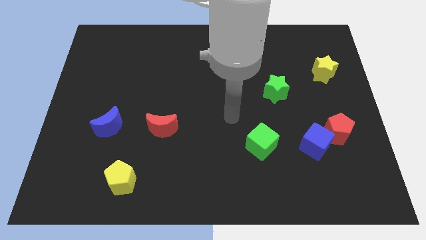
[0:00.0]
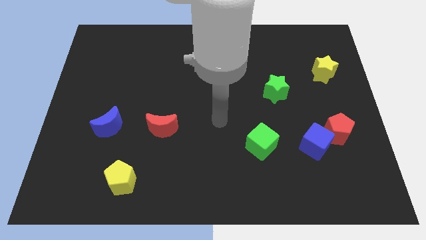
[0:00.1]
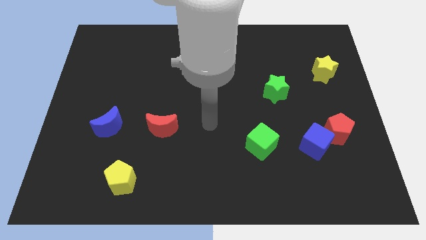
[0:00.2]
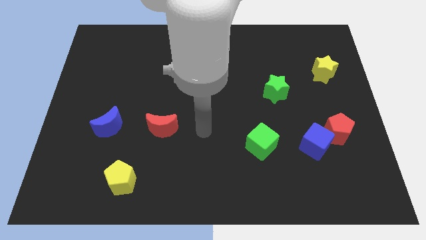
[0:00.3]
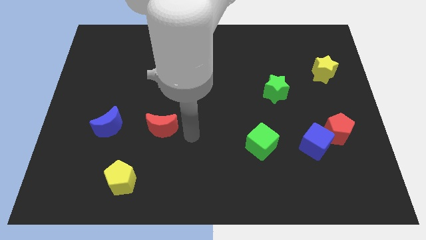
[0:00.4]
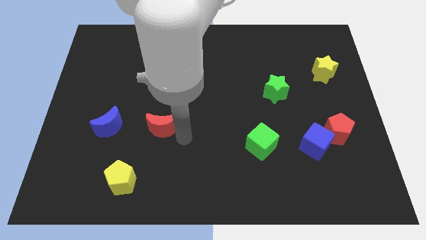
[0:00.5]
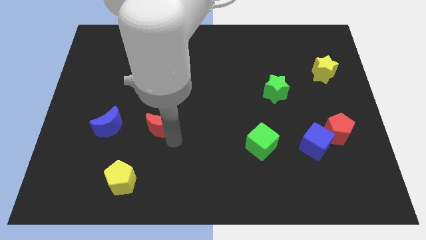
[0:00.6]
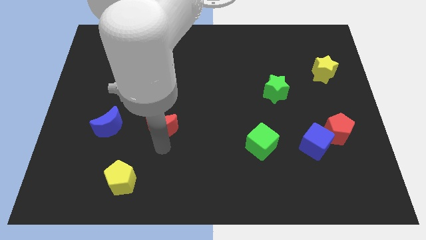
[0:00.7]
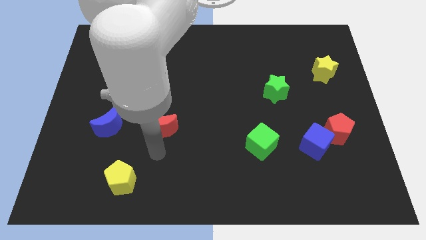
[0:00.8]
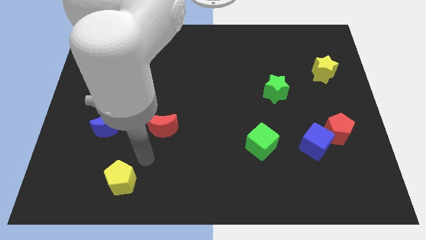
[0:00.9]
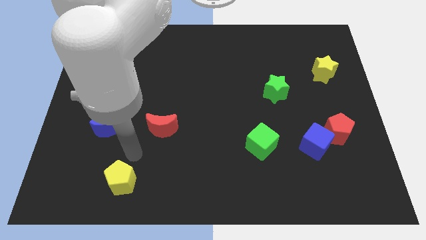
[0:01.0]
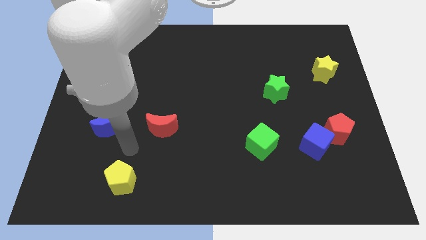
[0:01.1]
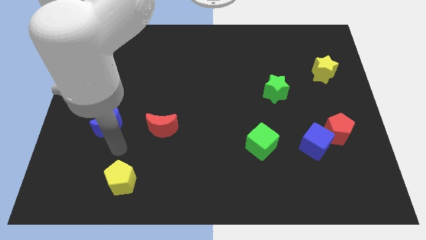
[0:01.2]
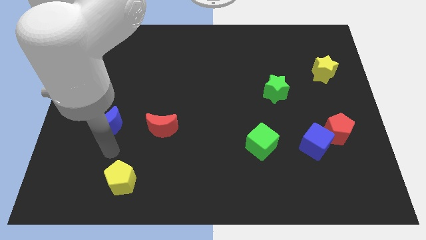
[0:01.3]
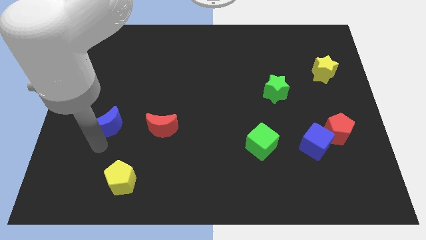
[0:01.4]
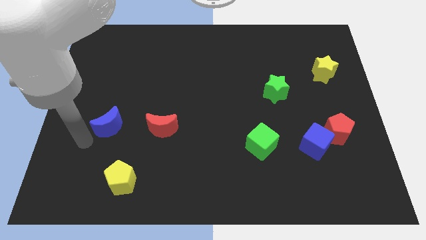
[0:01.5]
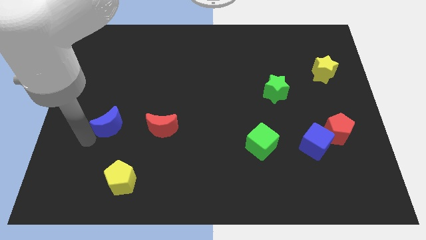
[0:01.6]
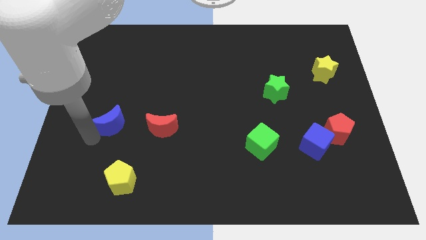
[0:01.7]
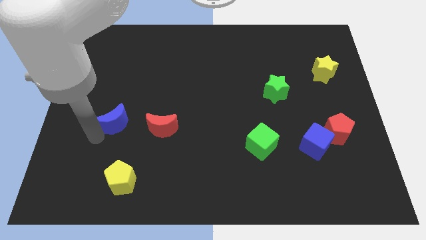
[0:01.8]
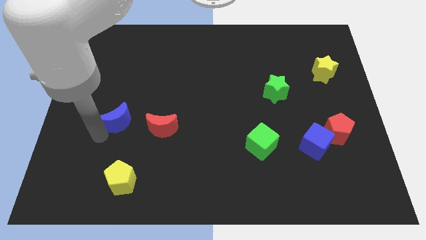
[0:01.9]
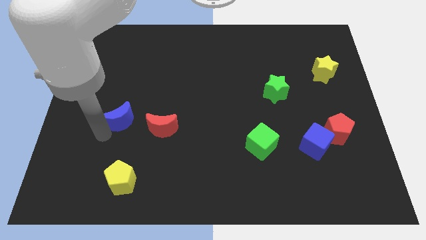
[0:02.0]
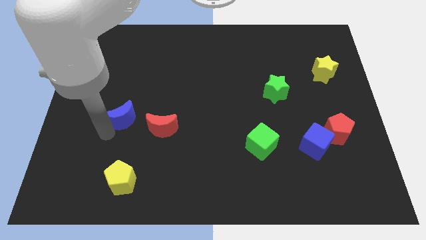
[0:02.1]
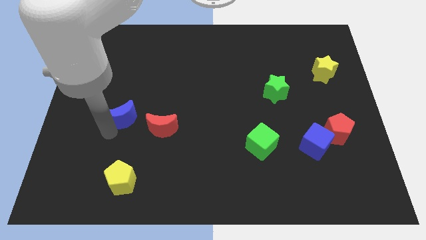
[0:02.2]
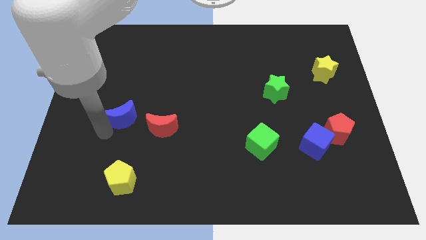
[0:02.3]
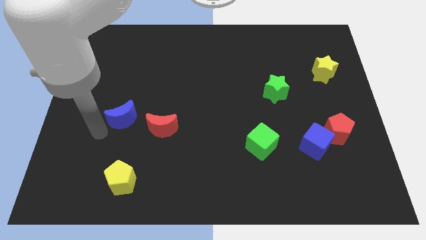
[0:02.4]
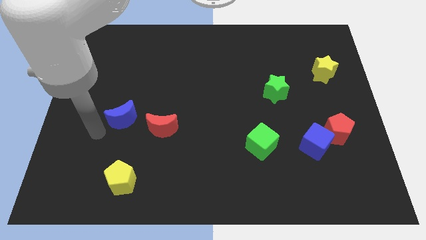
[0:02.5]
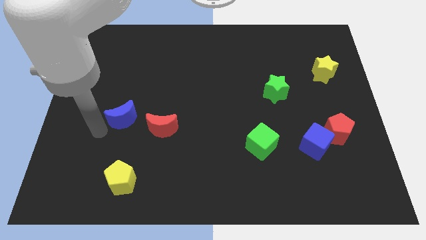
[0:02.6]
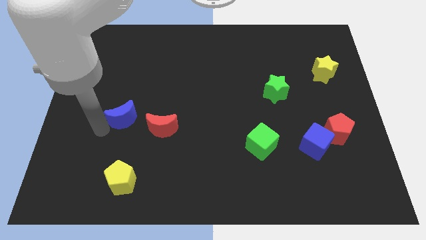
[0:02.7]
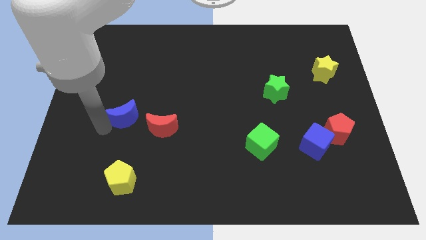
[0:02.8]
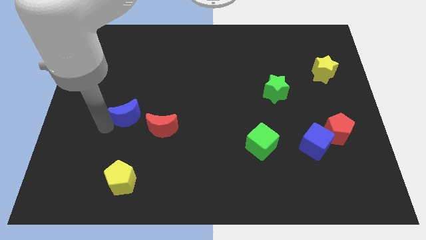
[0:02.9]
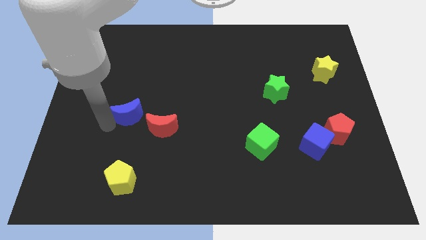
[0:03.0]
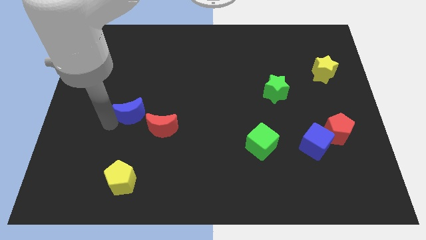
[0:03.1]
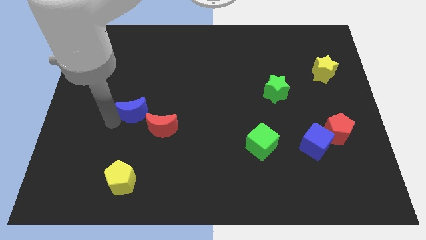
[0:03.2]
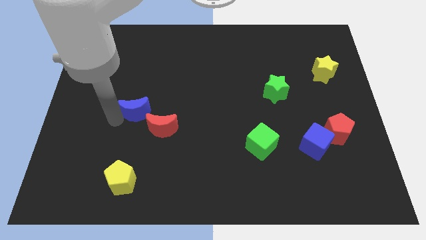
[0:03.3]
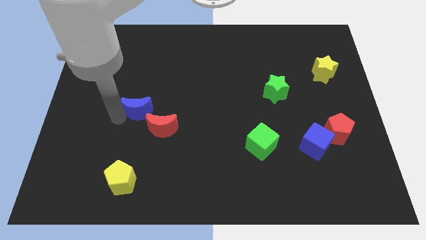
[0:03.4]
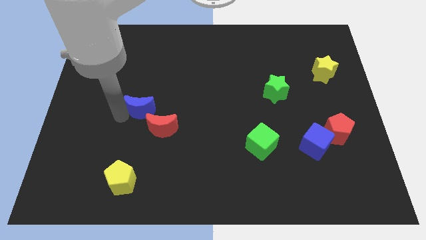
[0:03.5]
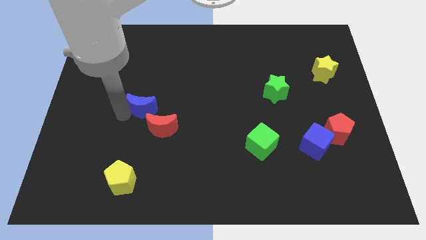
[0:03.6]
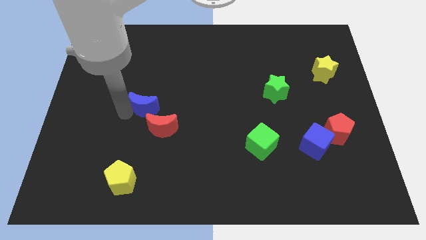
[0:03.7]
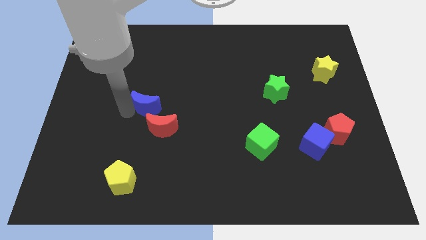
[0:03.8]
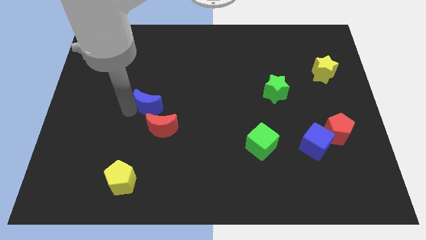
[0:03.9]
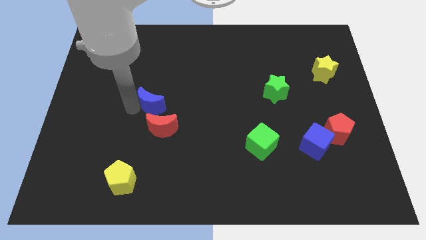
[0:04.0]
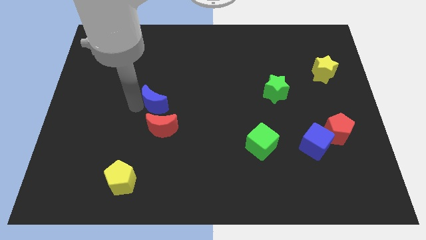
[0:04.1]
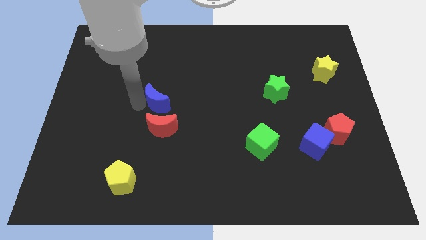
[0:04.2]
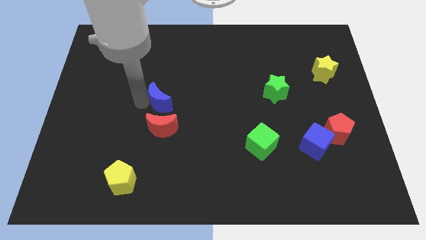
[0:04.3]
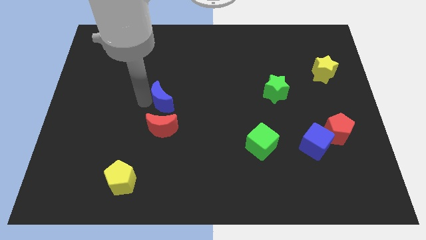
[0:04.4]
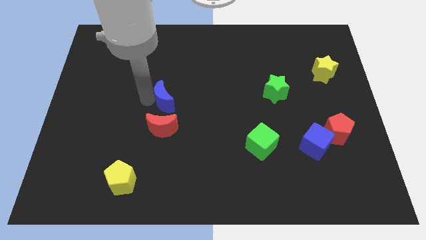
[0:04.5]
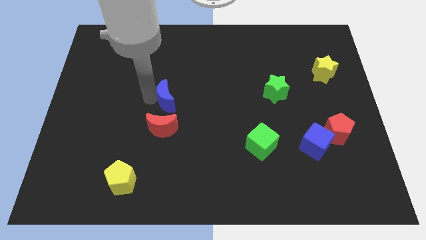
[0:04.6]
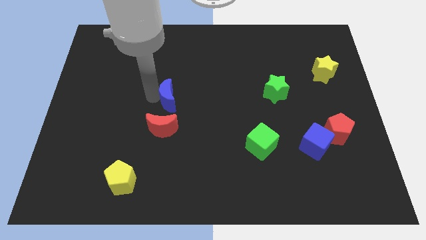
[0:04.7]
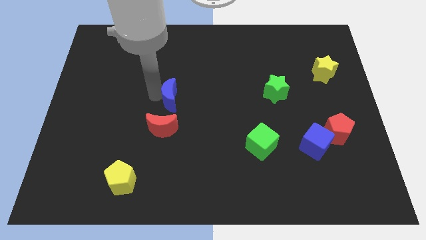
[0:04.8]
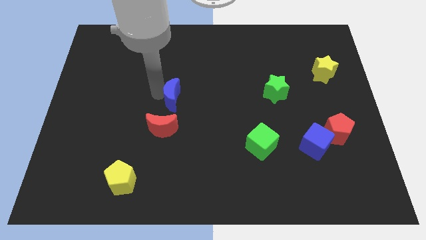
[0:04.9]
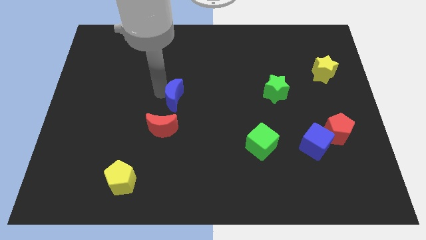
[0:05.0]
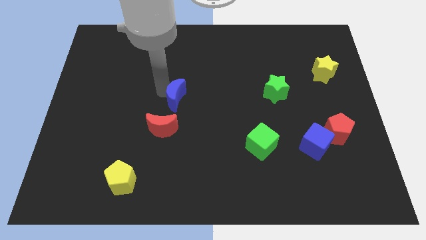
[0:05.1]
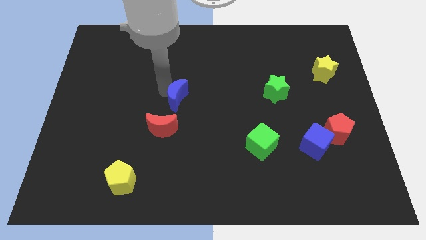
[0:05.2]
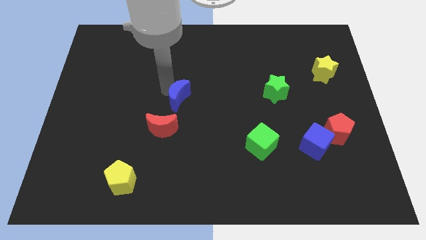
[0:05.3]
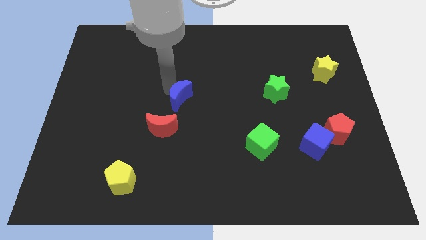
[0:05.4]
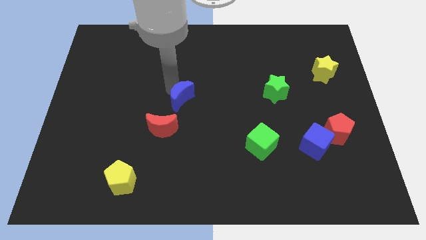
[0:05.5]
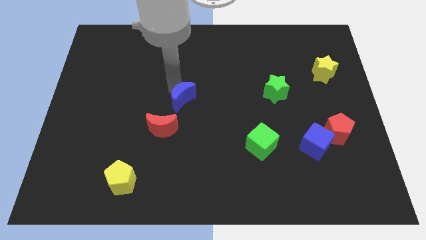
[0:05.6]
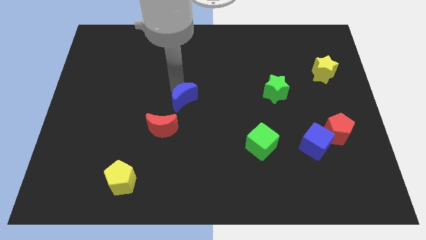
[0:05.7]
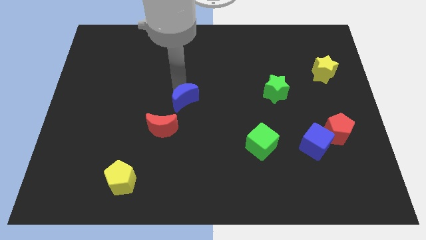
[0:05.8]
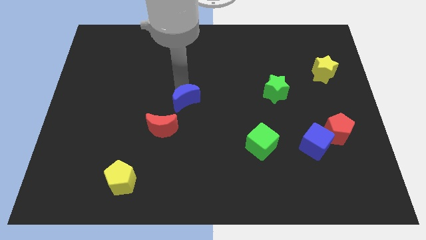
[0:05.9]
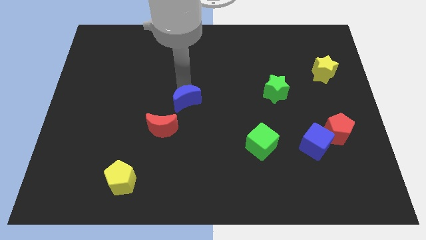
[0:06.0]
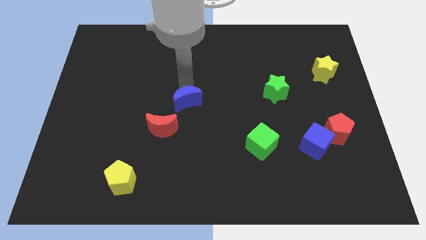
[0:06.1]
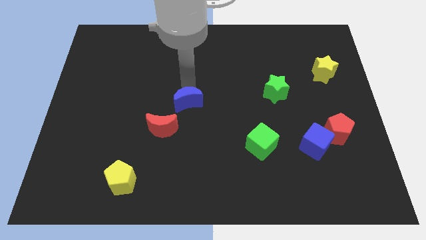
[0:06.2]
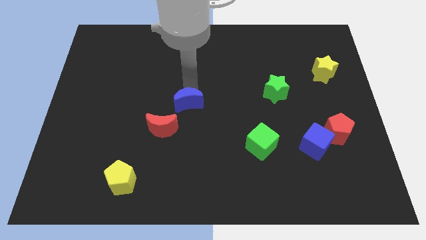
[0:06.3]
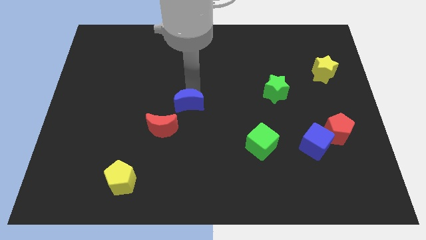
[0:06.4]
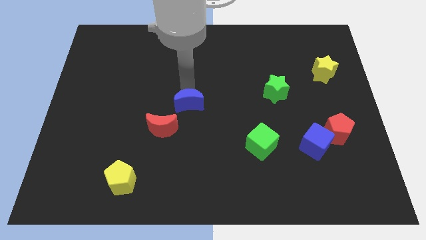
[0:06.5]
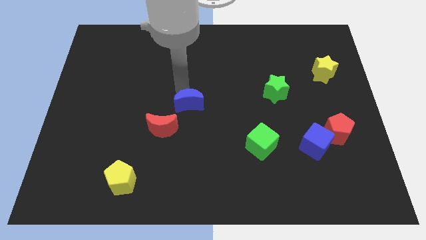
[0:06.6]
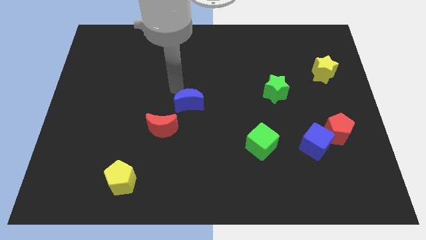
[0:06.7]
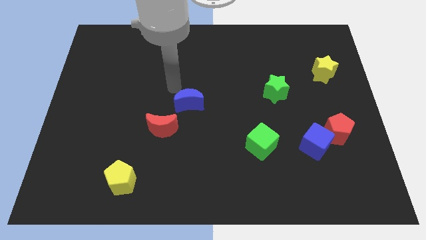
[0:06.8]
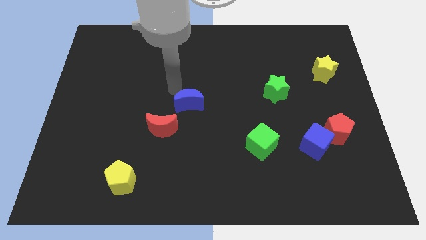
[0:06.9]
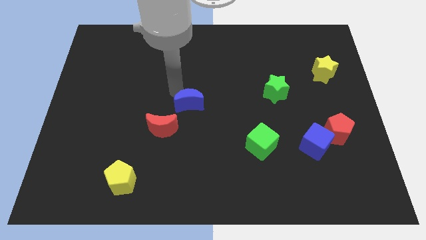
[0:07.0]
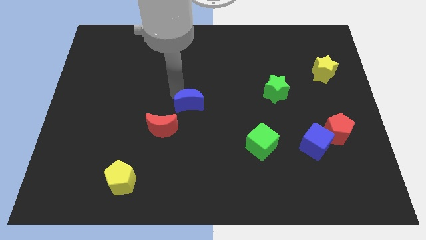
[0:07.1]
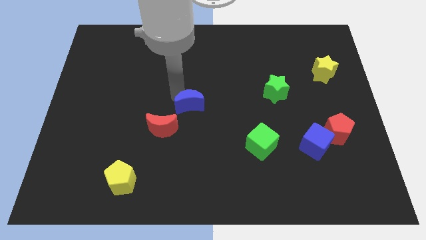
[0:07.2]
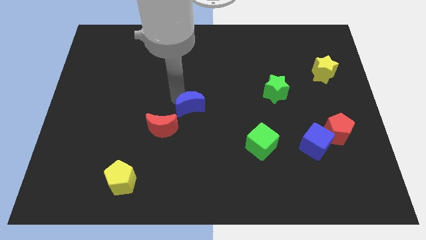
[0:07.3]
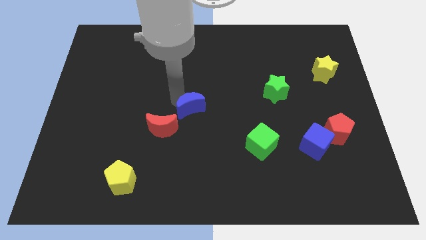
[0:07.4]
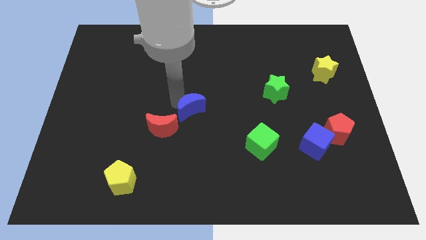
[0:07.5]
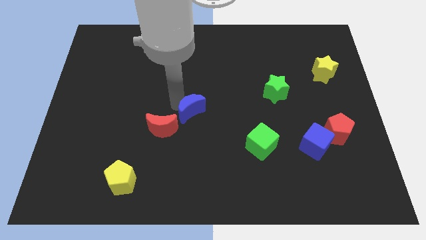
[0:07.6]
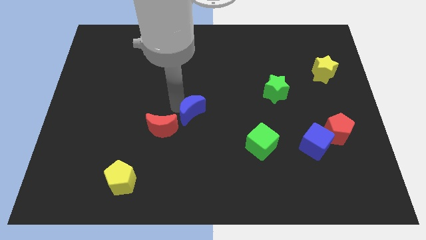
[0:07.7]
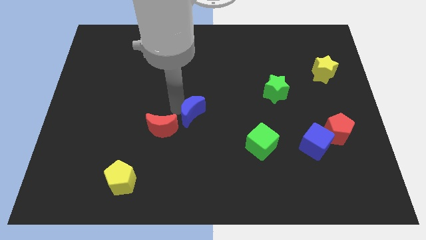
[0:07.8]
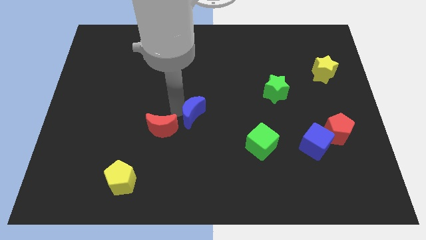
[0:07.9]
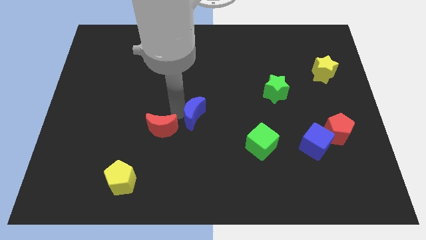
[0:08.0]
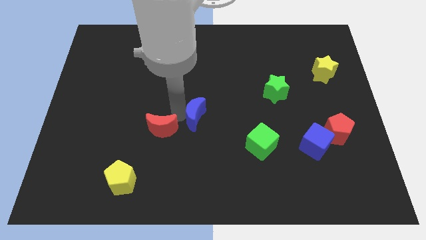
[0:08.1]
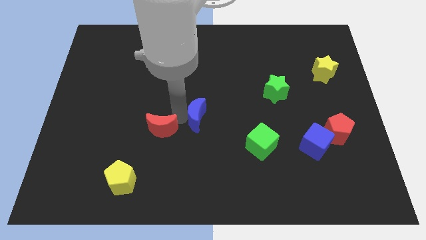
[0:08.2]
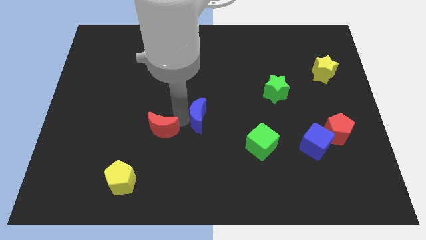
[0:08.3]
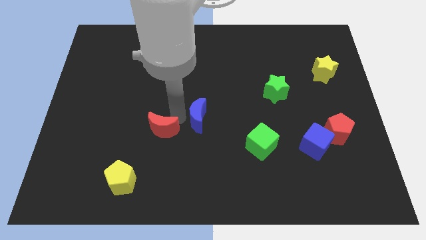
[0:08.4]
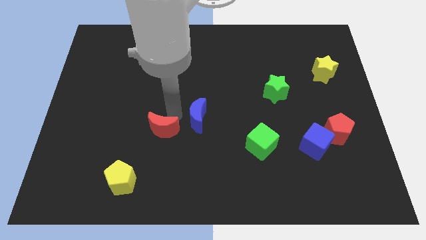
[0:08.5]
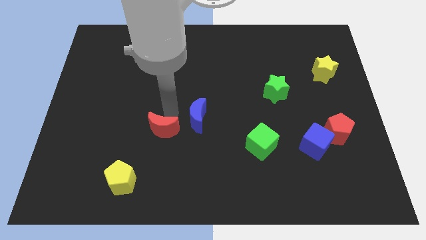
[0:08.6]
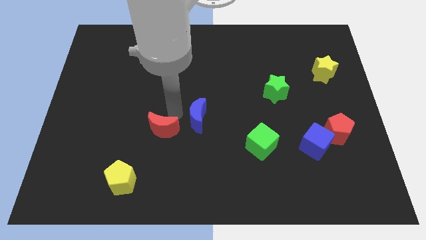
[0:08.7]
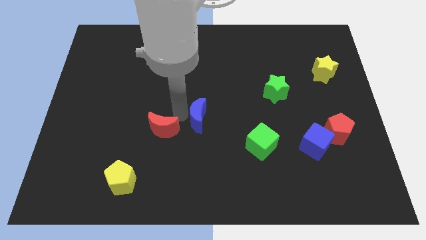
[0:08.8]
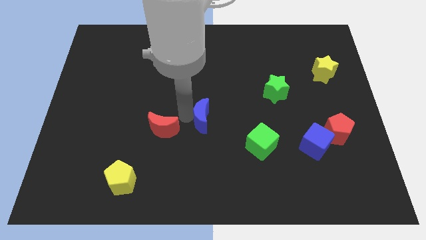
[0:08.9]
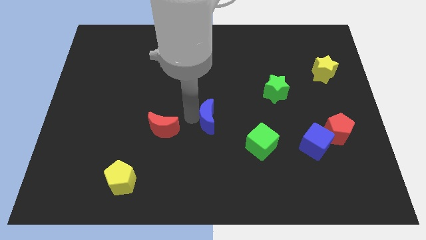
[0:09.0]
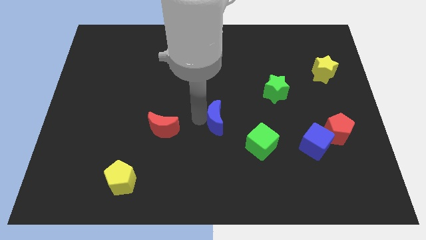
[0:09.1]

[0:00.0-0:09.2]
slide the blue moon to the top left side of the green cube
